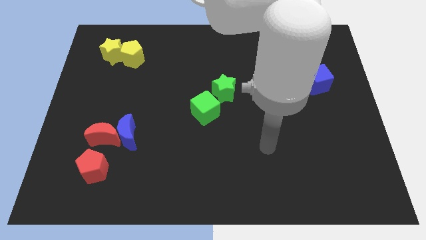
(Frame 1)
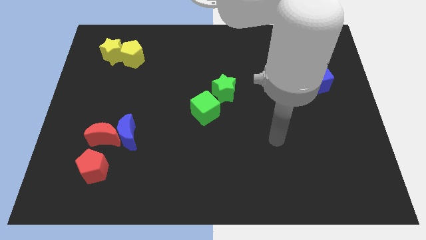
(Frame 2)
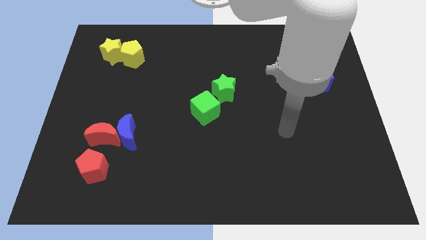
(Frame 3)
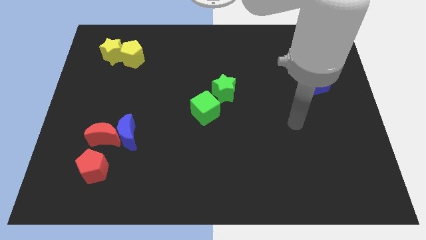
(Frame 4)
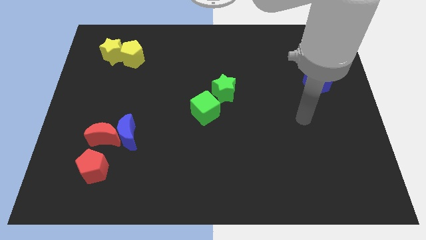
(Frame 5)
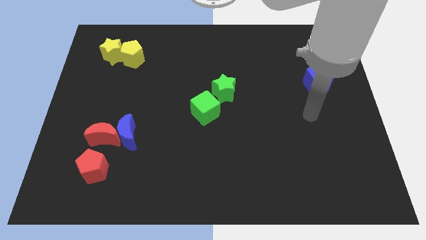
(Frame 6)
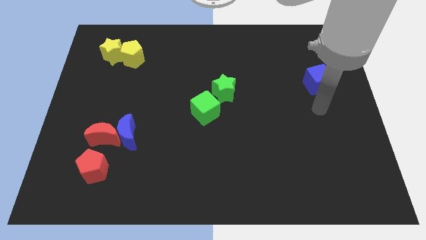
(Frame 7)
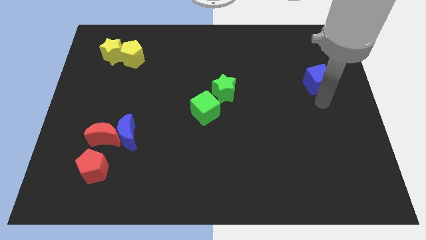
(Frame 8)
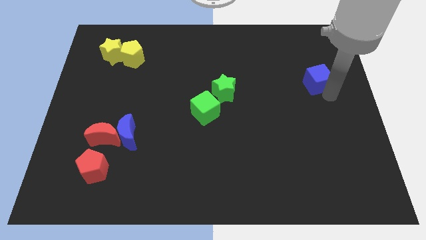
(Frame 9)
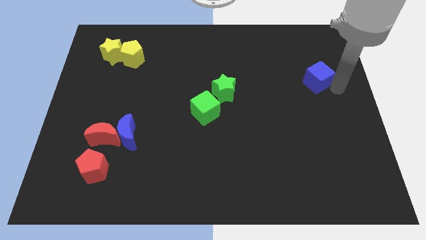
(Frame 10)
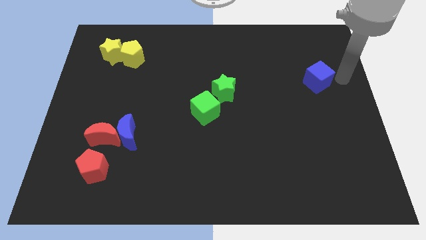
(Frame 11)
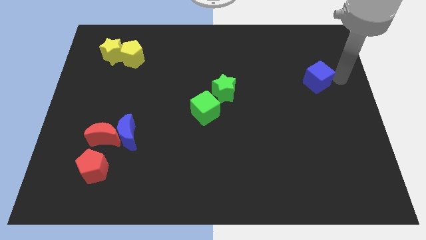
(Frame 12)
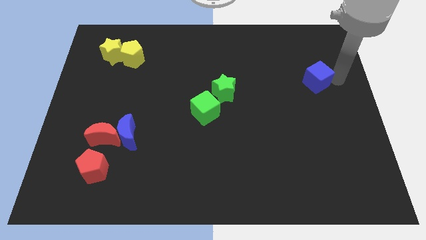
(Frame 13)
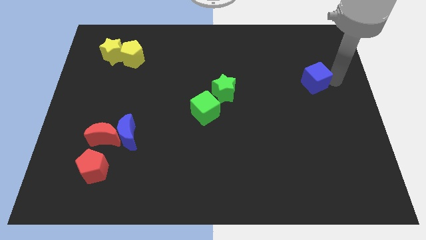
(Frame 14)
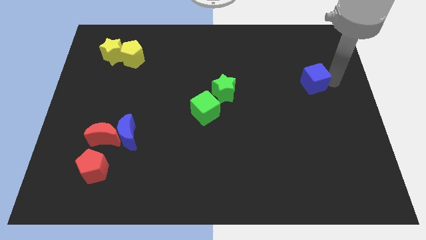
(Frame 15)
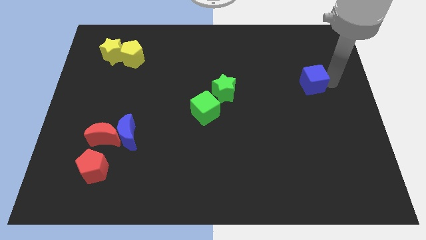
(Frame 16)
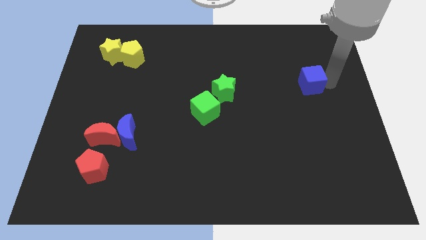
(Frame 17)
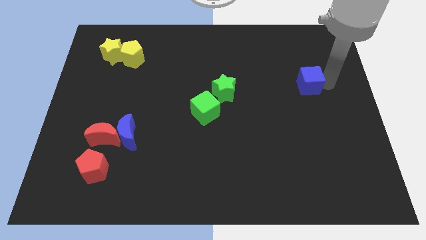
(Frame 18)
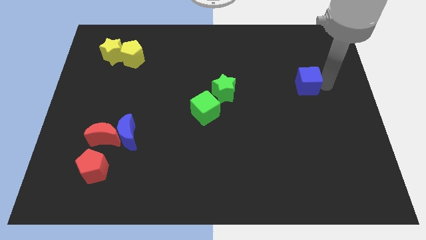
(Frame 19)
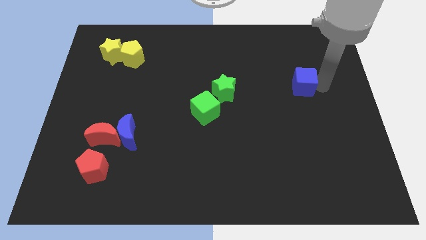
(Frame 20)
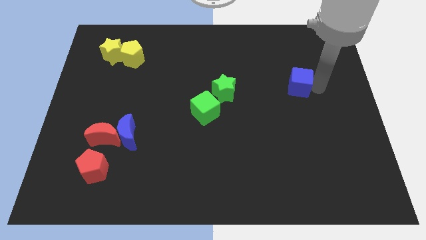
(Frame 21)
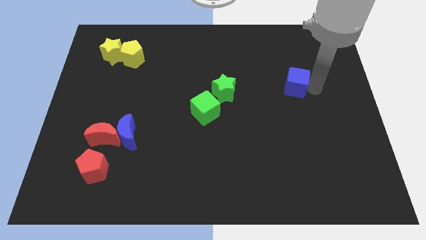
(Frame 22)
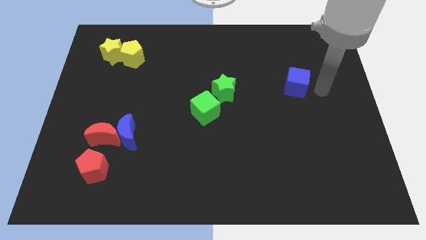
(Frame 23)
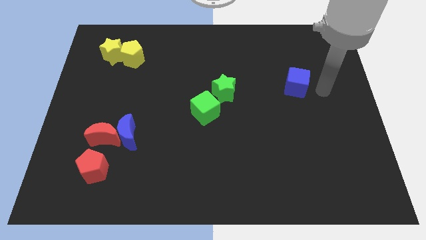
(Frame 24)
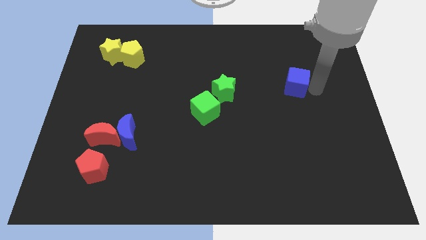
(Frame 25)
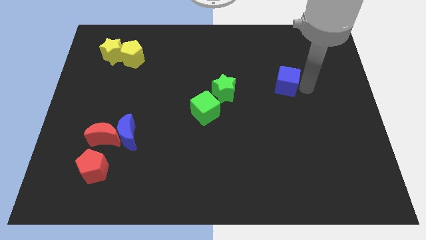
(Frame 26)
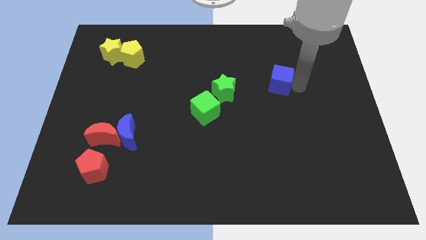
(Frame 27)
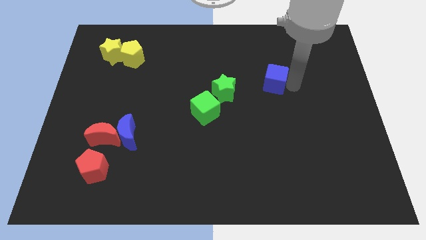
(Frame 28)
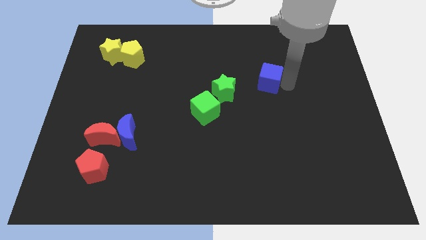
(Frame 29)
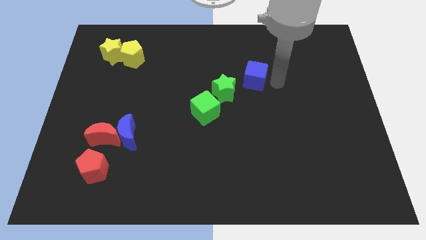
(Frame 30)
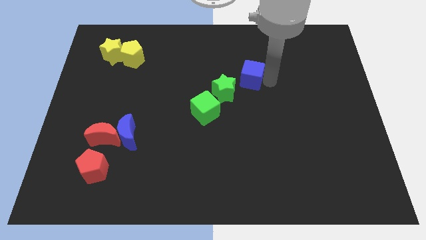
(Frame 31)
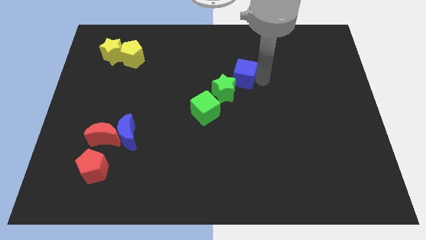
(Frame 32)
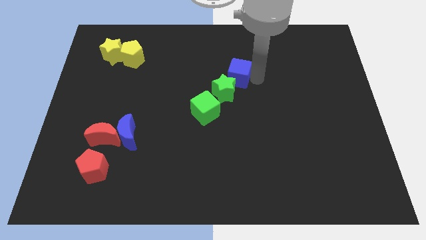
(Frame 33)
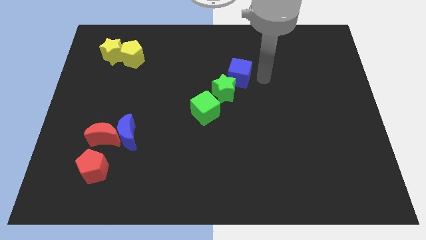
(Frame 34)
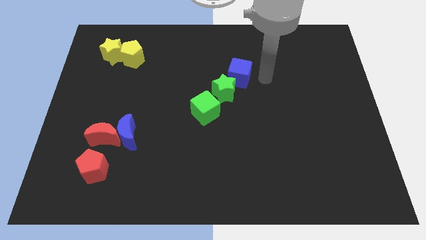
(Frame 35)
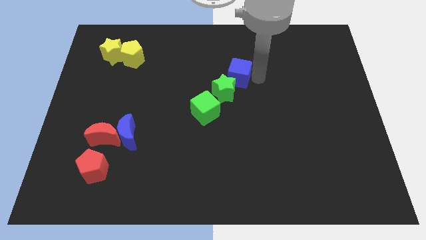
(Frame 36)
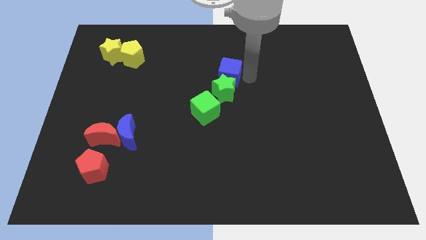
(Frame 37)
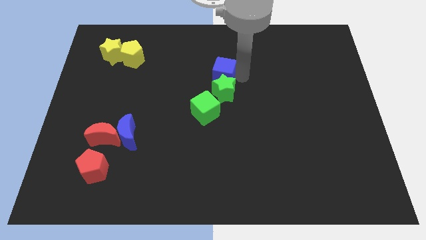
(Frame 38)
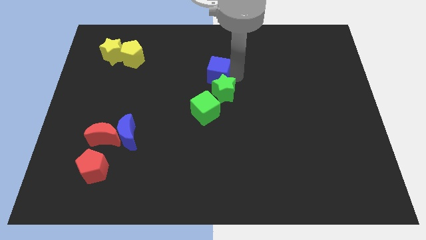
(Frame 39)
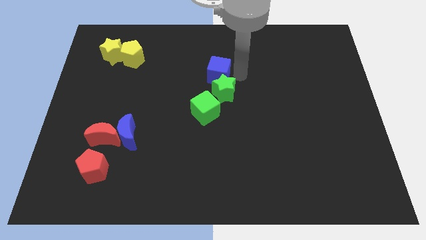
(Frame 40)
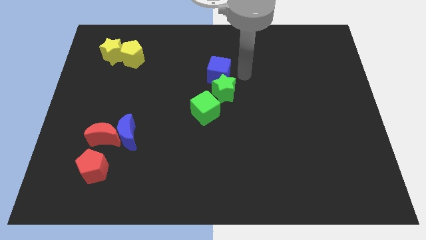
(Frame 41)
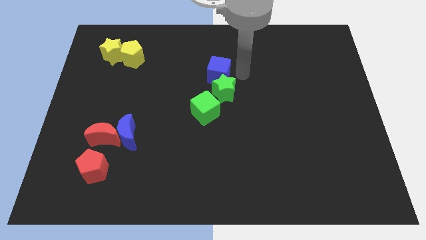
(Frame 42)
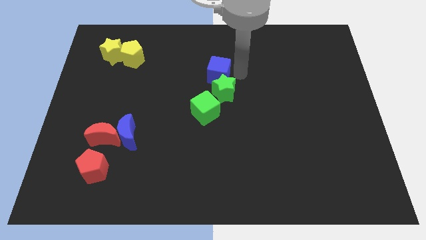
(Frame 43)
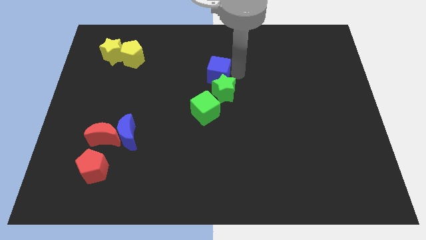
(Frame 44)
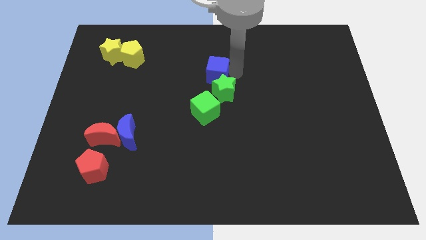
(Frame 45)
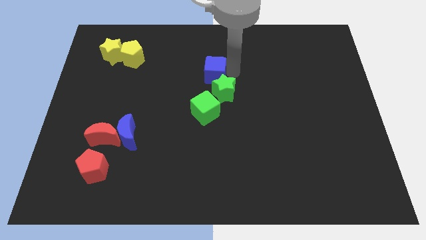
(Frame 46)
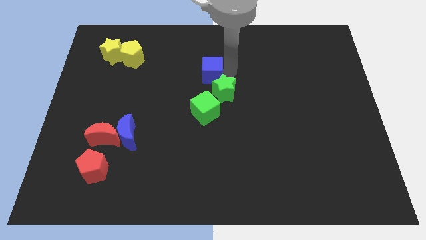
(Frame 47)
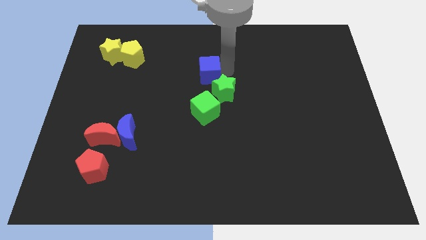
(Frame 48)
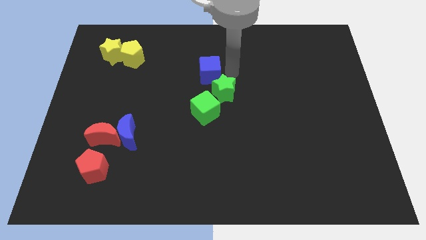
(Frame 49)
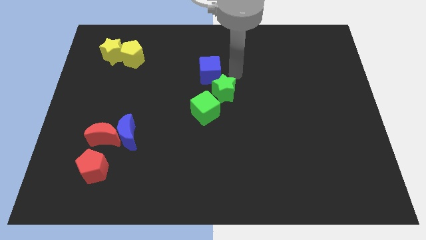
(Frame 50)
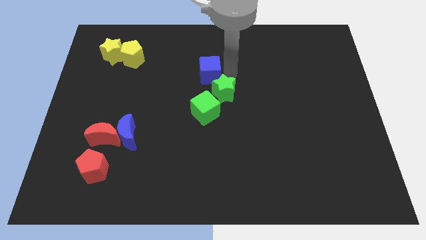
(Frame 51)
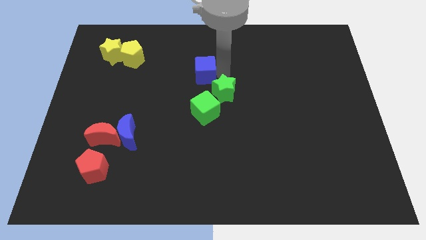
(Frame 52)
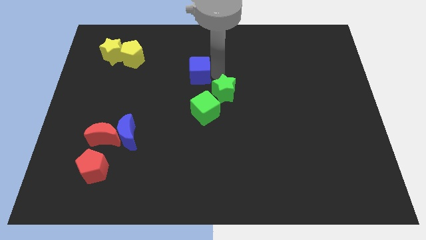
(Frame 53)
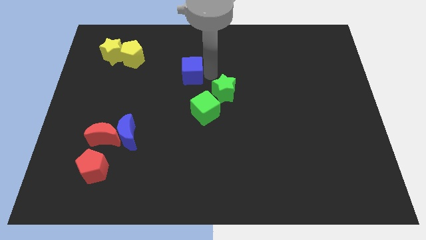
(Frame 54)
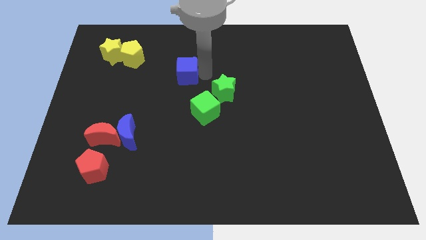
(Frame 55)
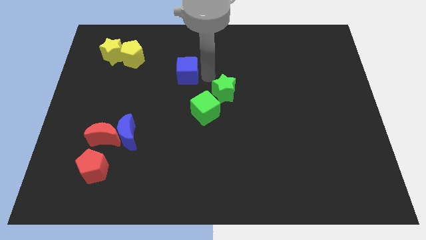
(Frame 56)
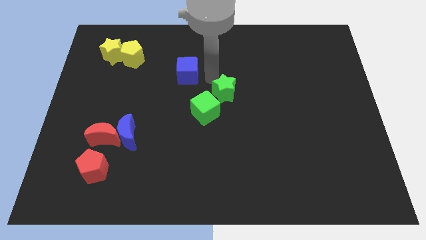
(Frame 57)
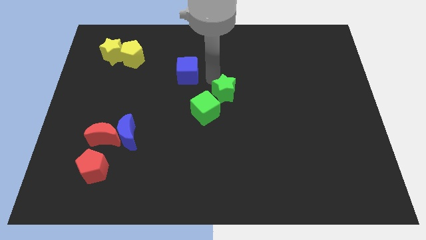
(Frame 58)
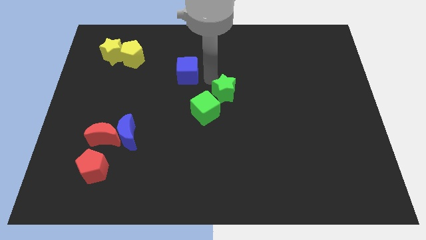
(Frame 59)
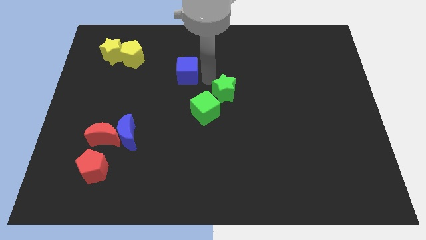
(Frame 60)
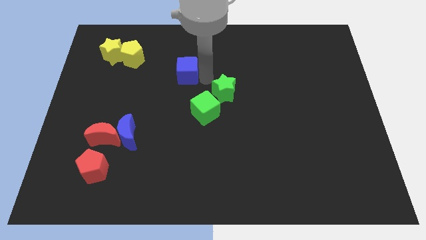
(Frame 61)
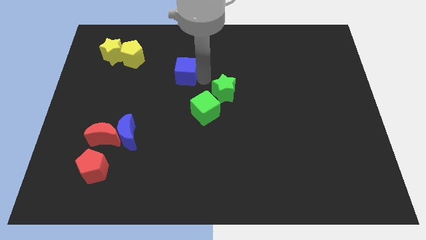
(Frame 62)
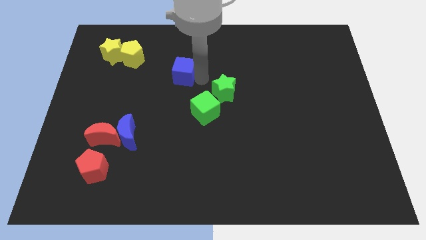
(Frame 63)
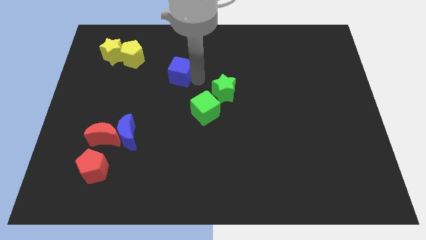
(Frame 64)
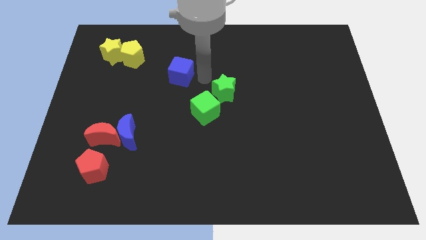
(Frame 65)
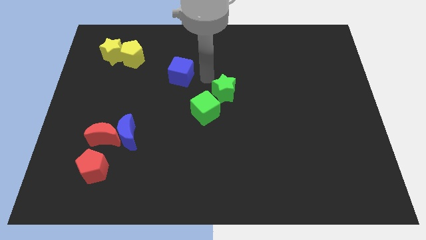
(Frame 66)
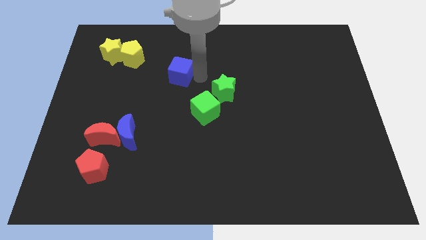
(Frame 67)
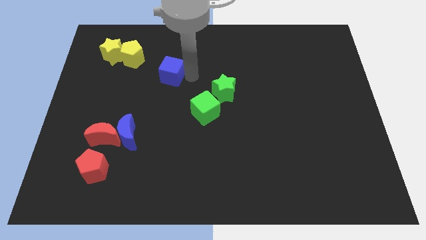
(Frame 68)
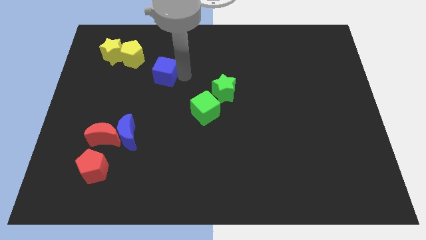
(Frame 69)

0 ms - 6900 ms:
slide the blue cube diagonally down and to the right of the yellow pentagon

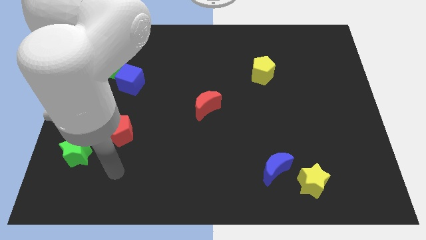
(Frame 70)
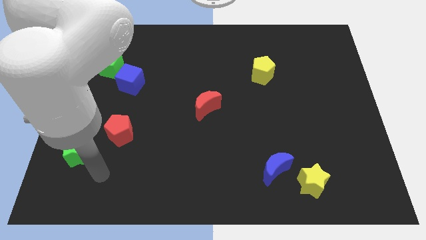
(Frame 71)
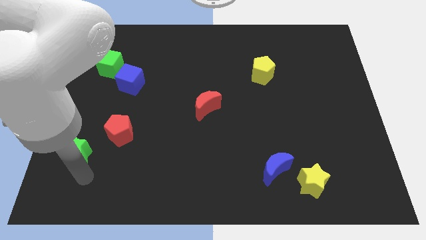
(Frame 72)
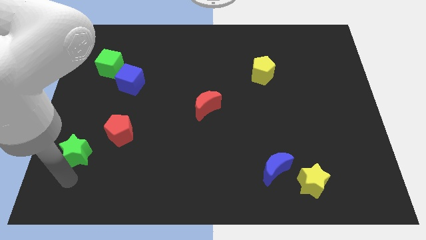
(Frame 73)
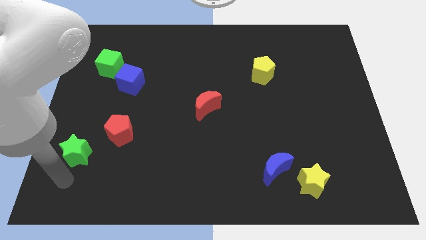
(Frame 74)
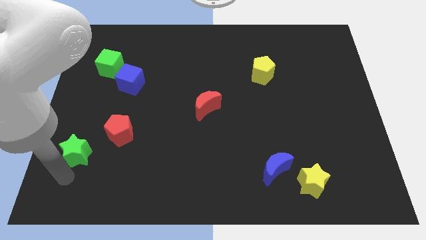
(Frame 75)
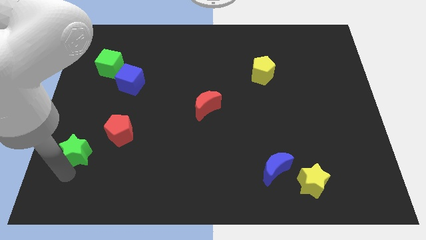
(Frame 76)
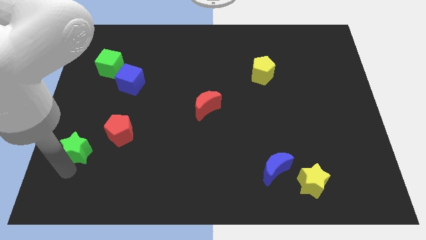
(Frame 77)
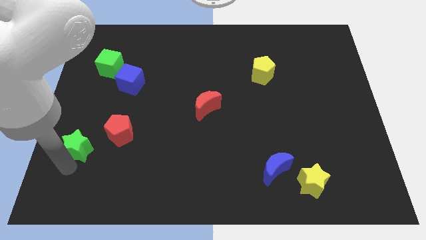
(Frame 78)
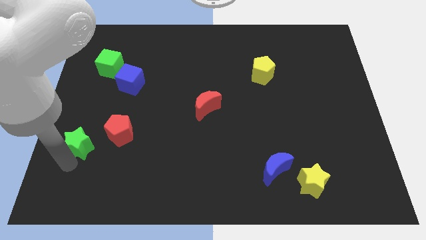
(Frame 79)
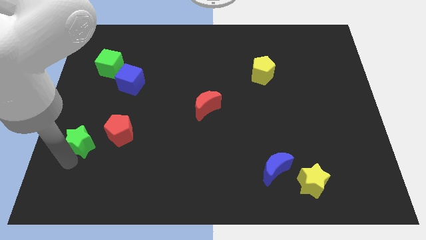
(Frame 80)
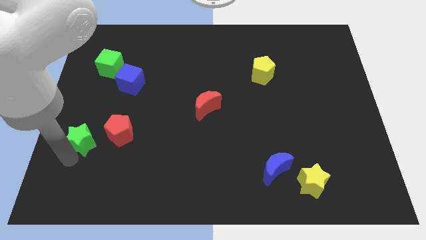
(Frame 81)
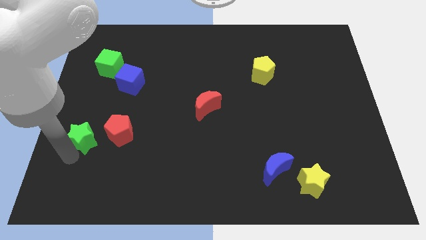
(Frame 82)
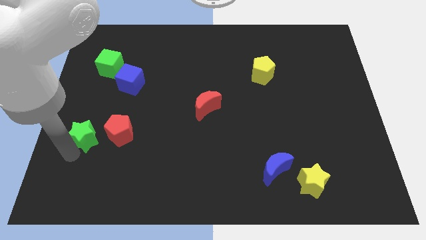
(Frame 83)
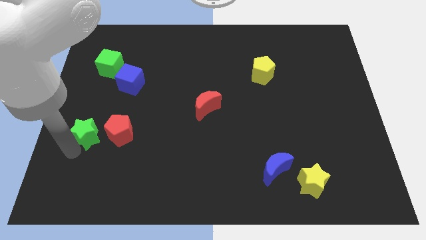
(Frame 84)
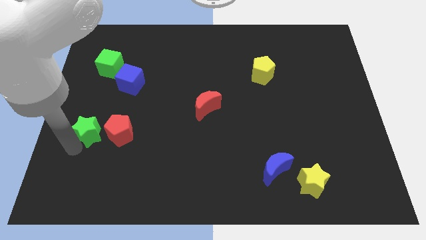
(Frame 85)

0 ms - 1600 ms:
slide the green star to the top left side of the red pentagon
